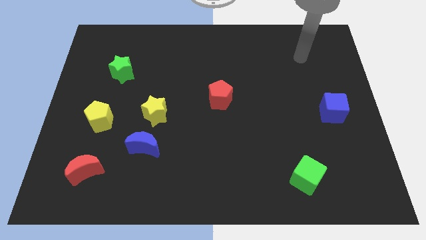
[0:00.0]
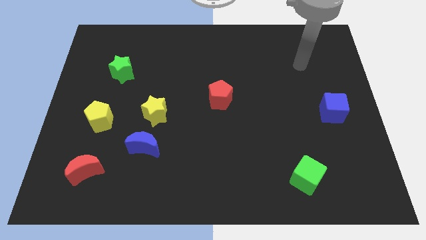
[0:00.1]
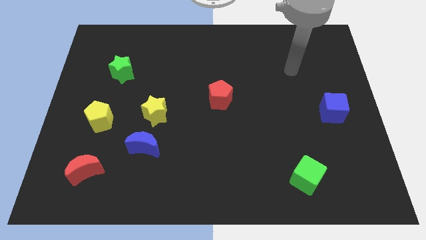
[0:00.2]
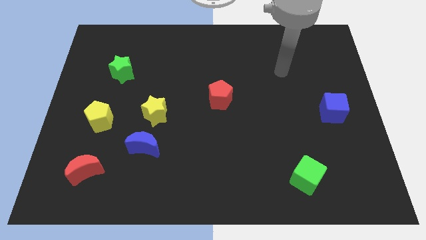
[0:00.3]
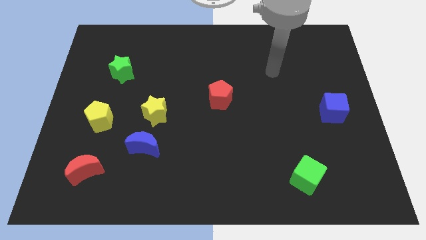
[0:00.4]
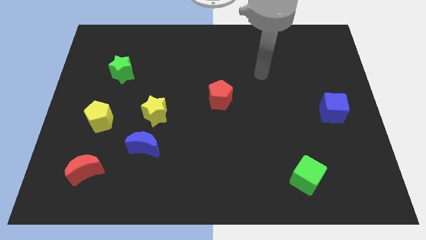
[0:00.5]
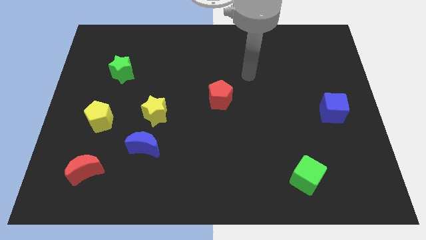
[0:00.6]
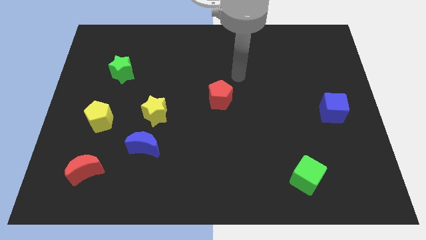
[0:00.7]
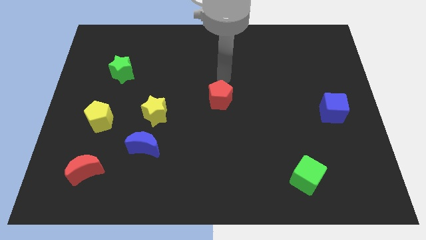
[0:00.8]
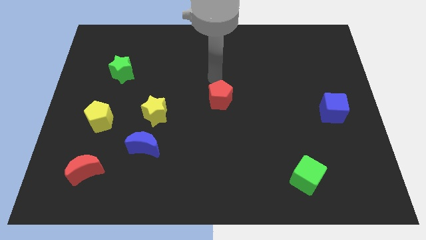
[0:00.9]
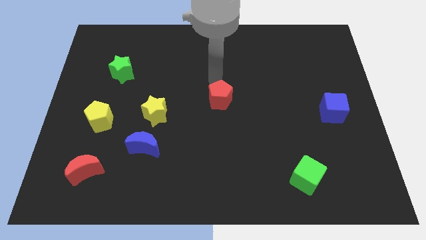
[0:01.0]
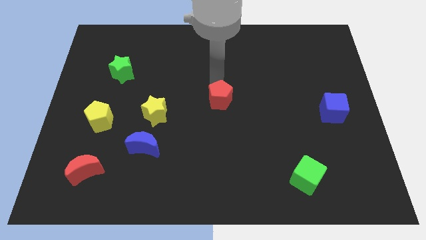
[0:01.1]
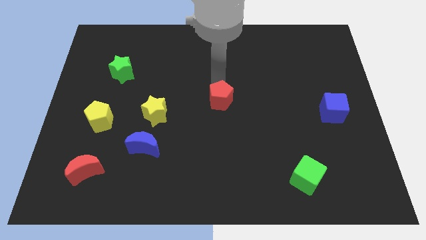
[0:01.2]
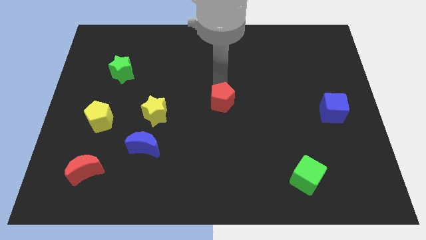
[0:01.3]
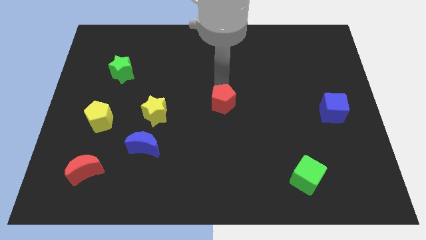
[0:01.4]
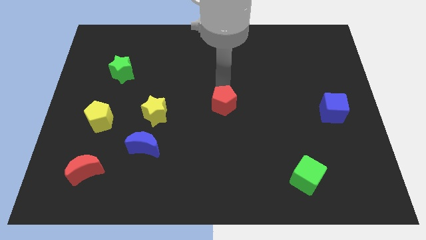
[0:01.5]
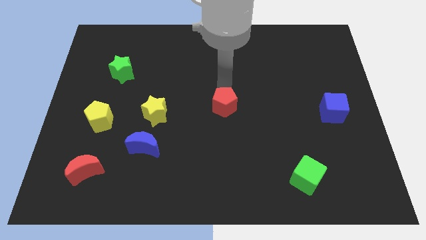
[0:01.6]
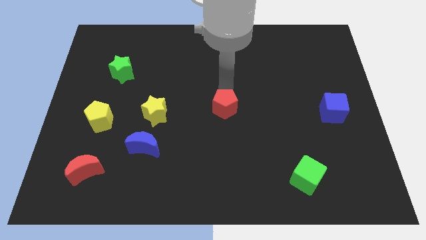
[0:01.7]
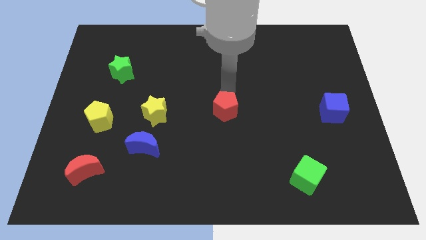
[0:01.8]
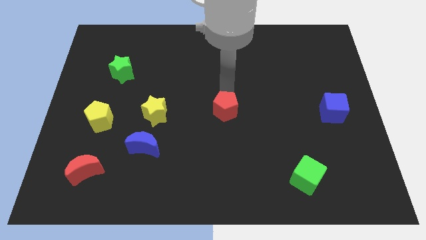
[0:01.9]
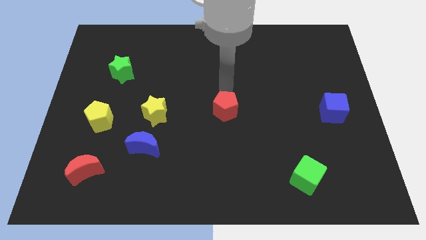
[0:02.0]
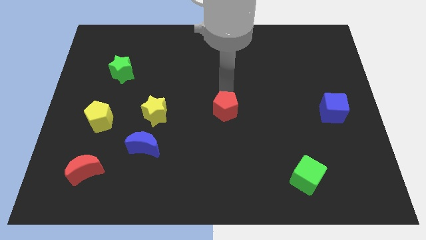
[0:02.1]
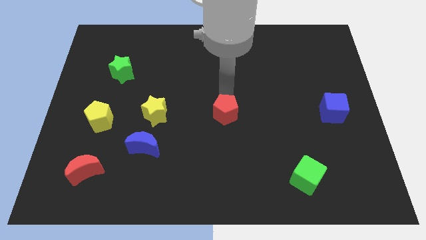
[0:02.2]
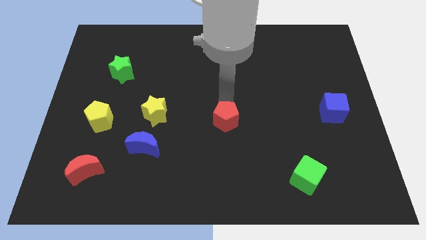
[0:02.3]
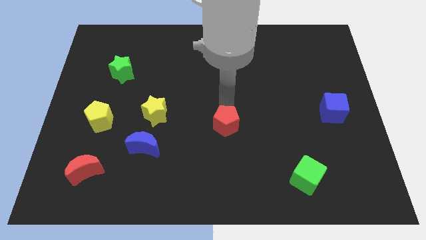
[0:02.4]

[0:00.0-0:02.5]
push the red pentagon down a bit

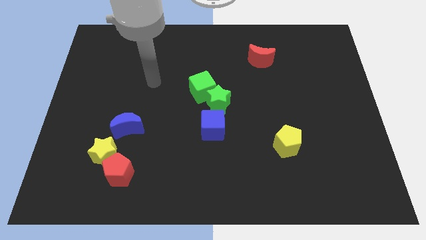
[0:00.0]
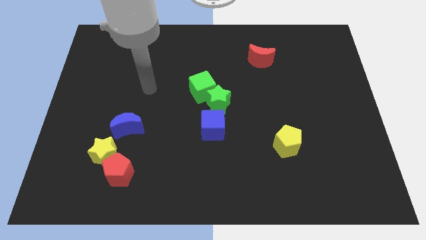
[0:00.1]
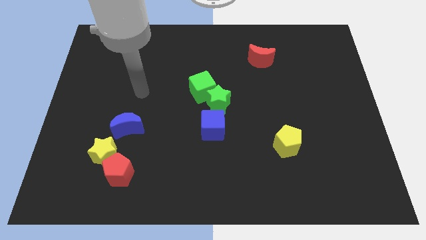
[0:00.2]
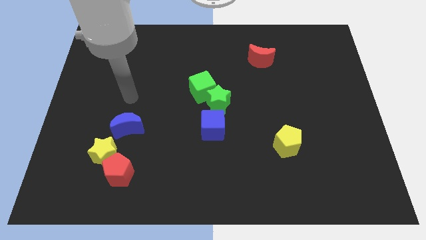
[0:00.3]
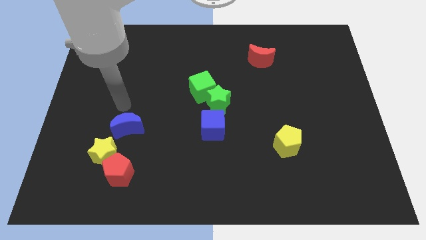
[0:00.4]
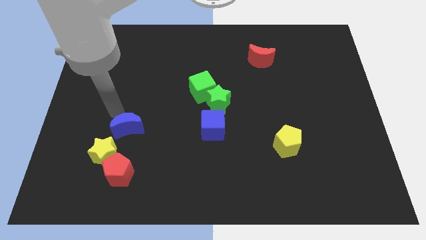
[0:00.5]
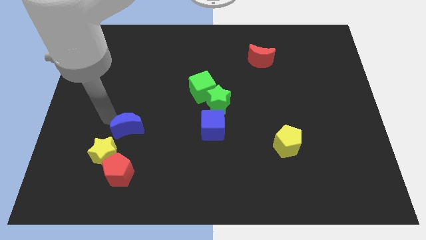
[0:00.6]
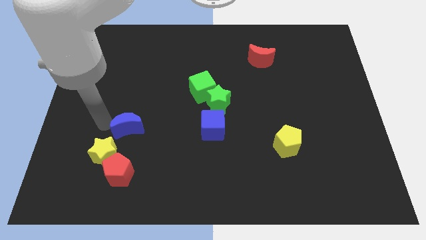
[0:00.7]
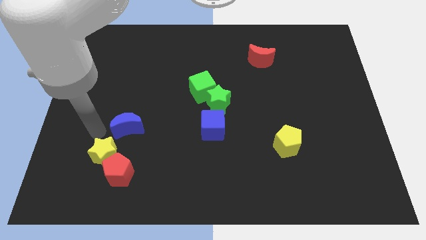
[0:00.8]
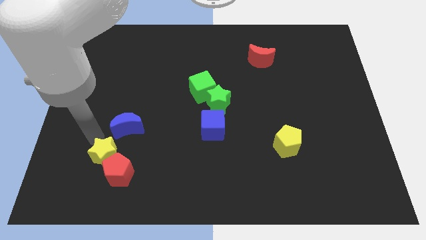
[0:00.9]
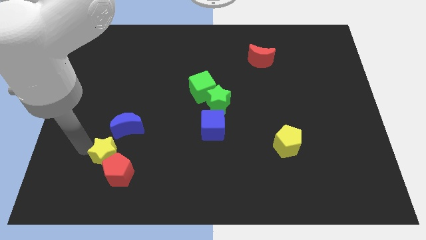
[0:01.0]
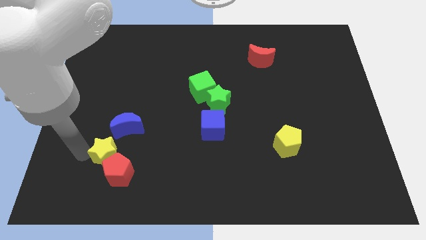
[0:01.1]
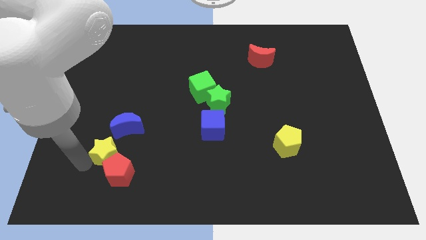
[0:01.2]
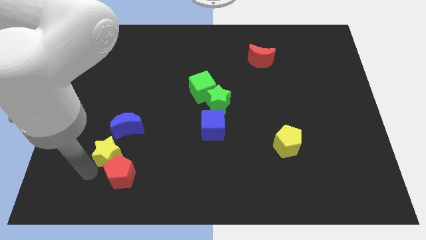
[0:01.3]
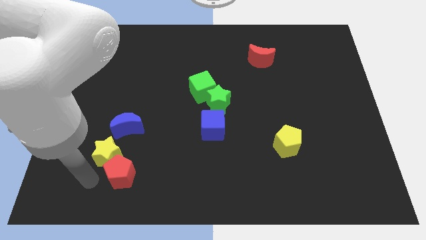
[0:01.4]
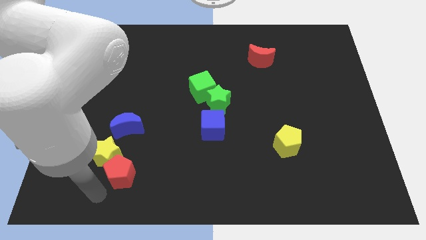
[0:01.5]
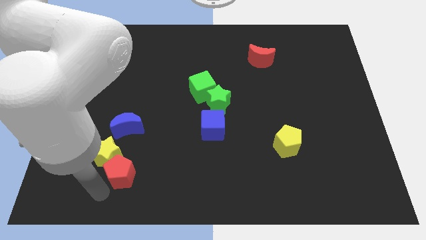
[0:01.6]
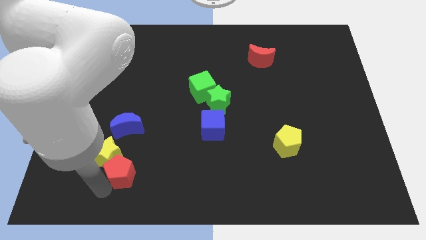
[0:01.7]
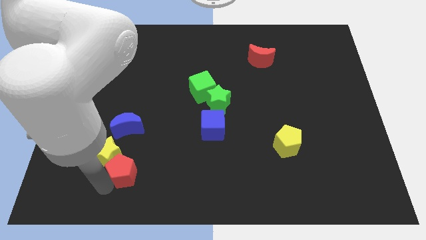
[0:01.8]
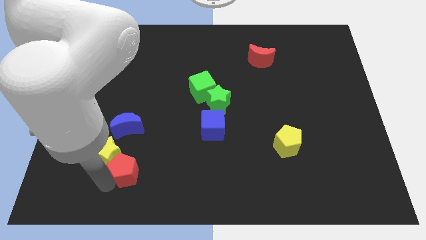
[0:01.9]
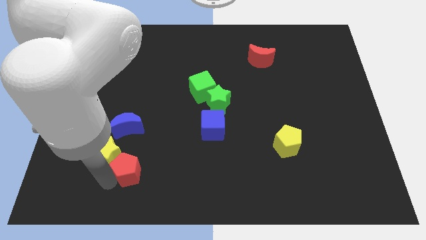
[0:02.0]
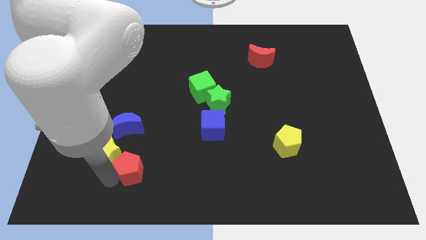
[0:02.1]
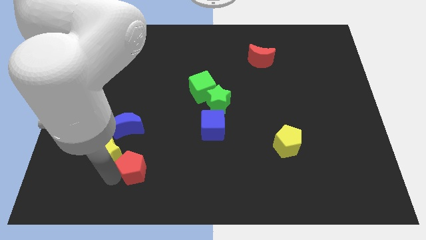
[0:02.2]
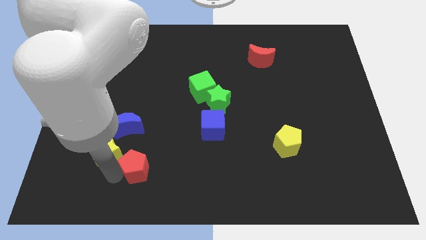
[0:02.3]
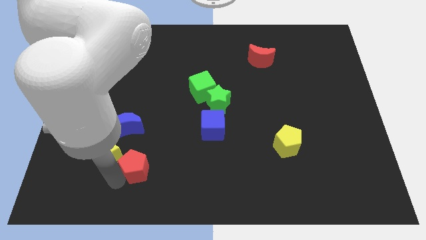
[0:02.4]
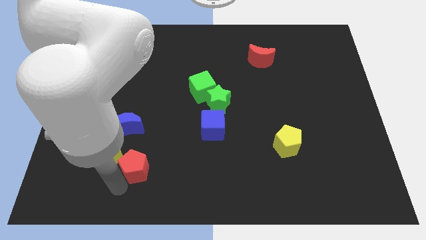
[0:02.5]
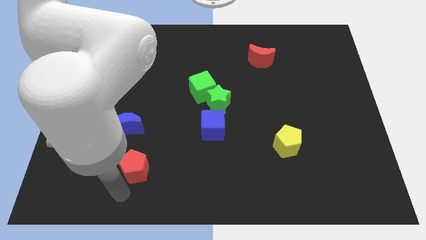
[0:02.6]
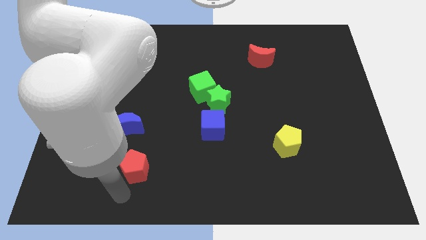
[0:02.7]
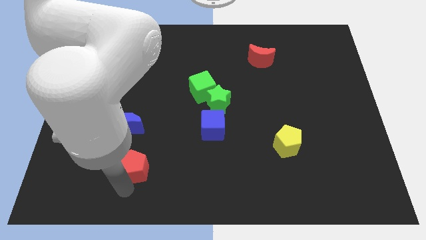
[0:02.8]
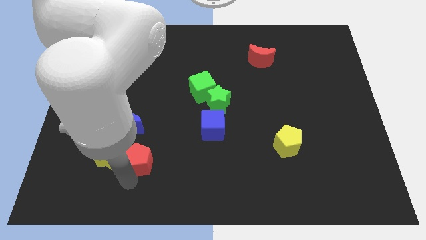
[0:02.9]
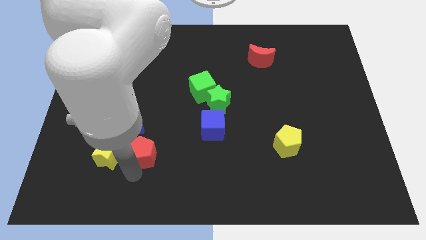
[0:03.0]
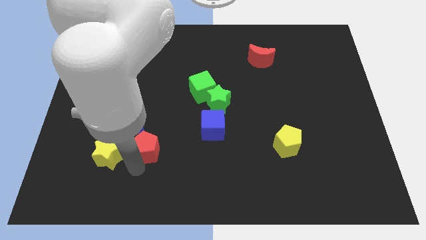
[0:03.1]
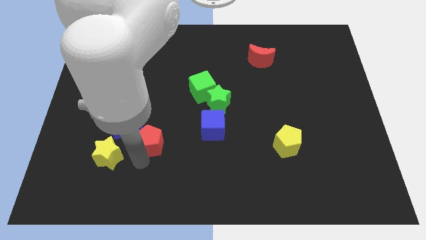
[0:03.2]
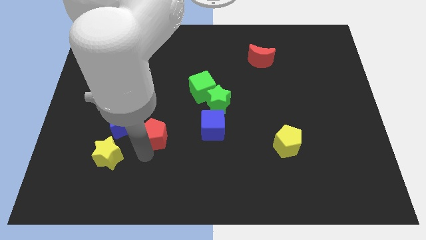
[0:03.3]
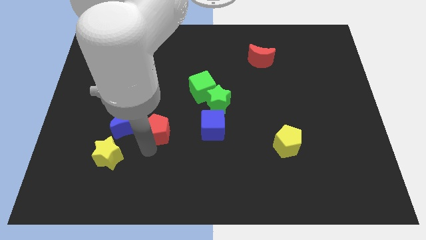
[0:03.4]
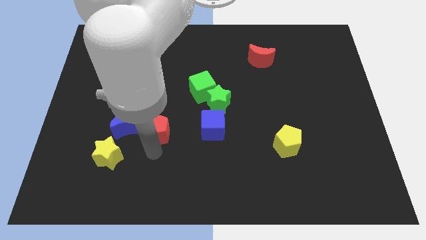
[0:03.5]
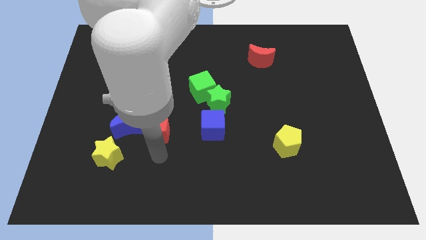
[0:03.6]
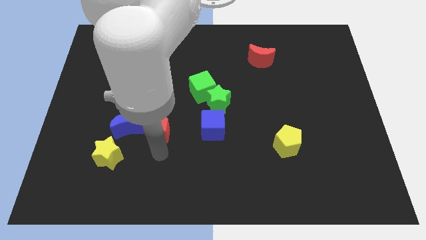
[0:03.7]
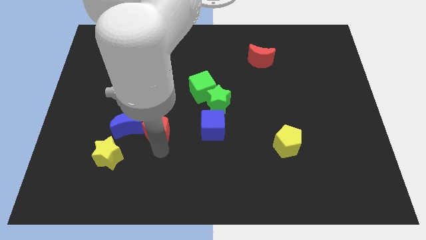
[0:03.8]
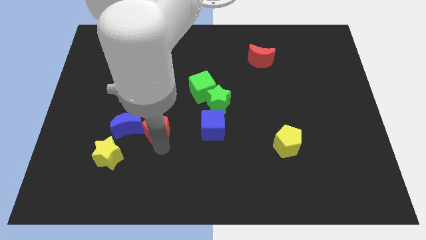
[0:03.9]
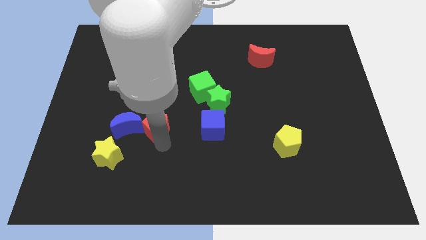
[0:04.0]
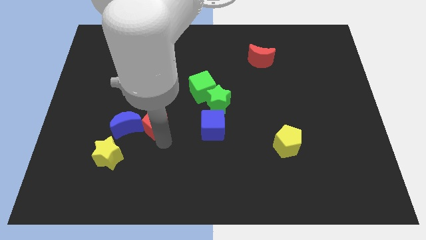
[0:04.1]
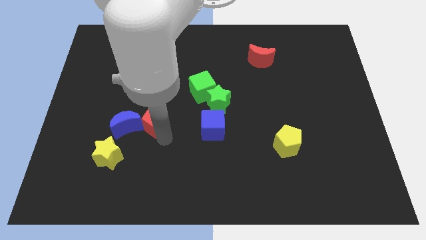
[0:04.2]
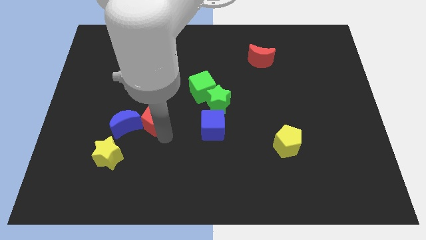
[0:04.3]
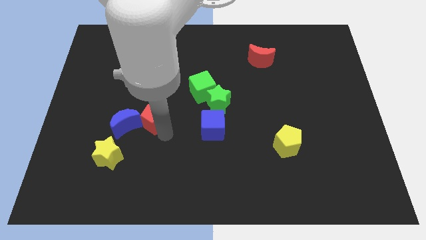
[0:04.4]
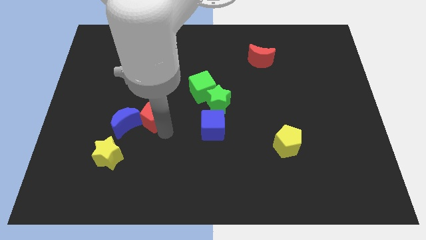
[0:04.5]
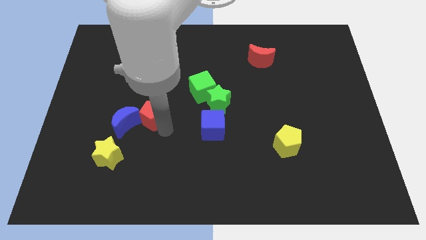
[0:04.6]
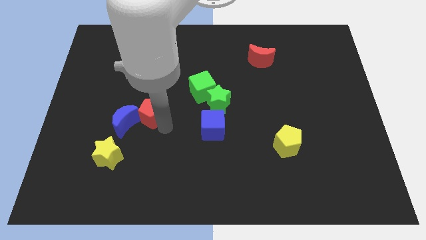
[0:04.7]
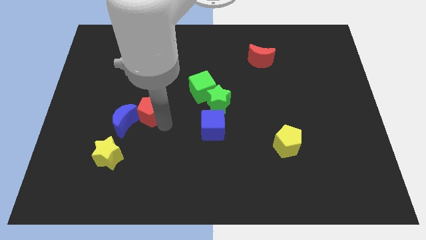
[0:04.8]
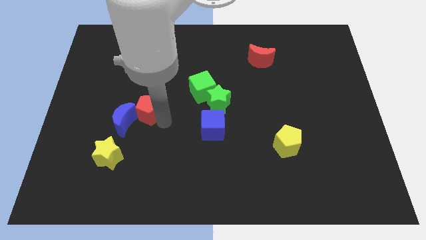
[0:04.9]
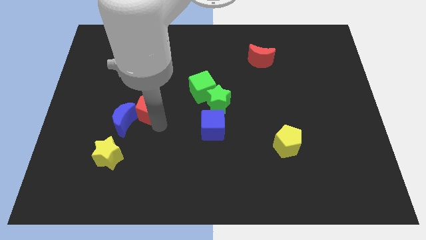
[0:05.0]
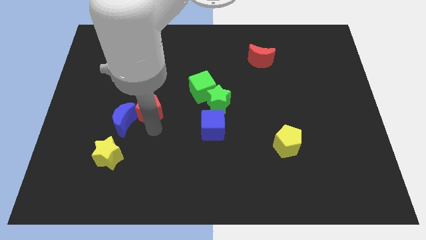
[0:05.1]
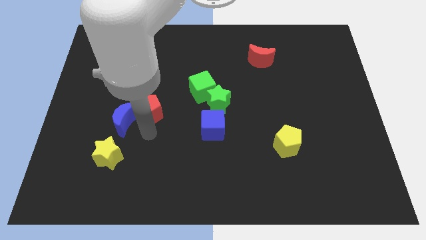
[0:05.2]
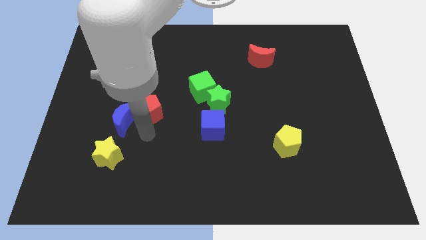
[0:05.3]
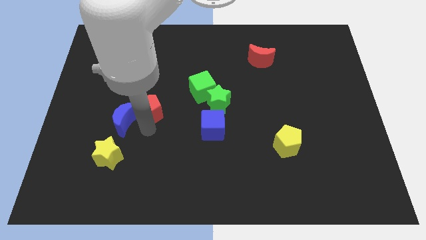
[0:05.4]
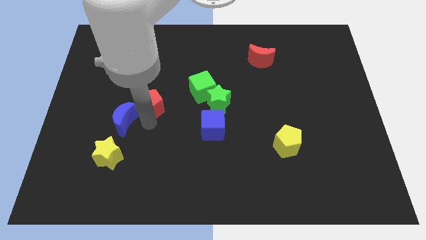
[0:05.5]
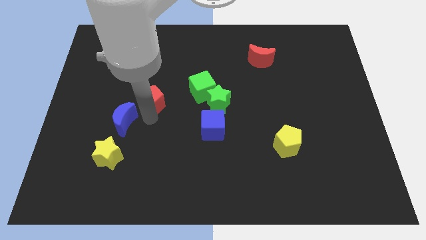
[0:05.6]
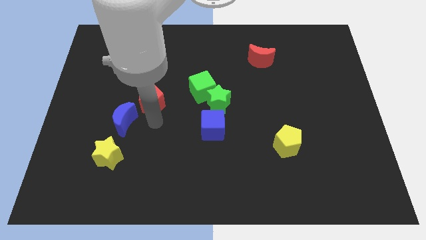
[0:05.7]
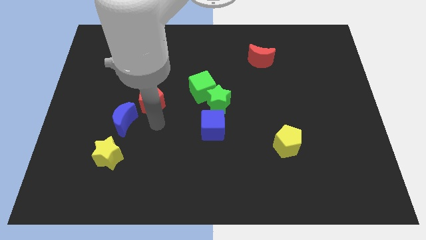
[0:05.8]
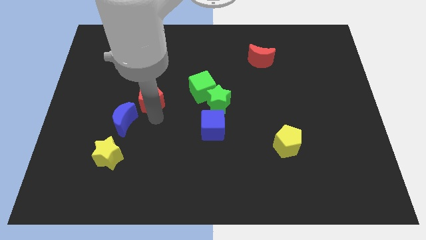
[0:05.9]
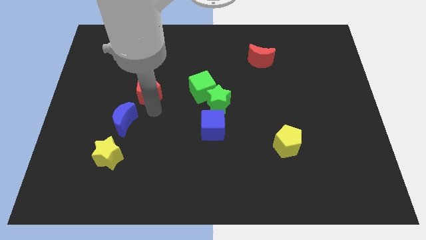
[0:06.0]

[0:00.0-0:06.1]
move the red pentagon upwards
